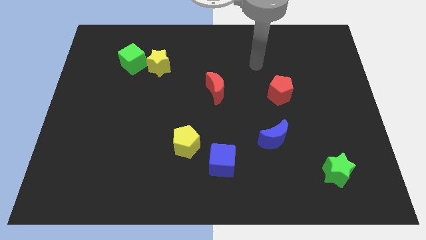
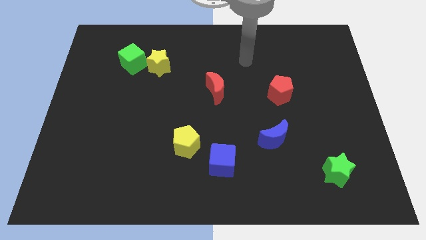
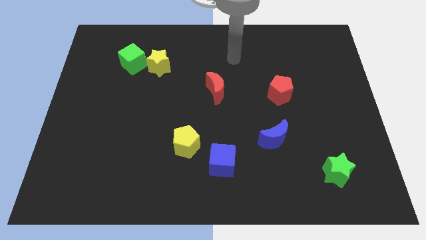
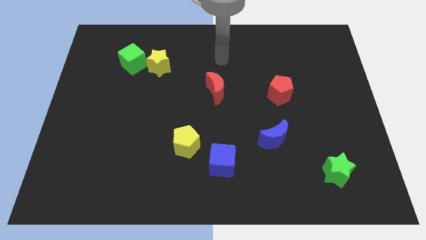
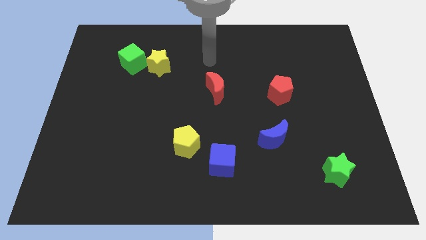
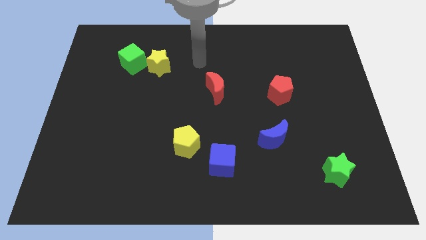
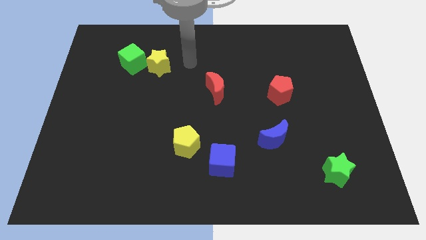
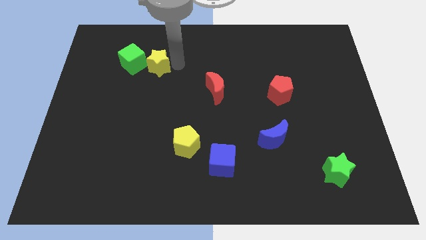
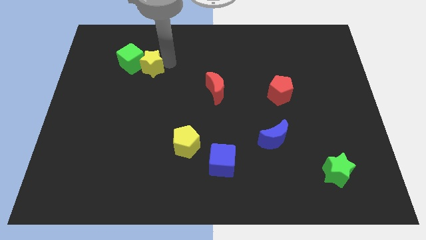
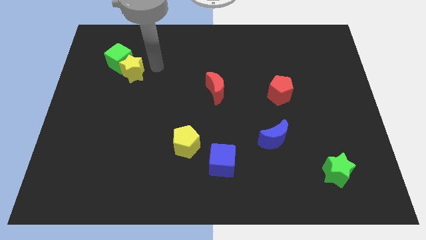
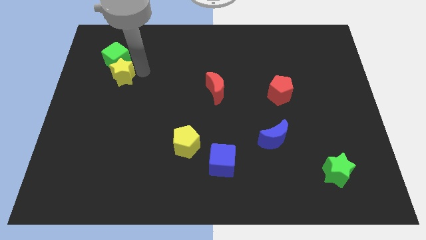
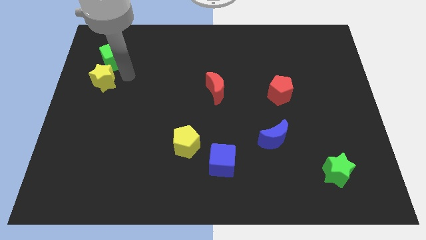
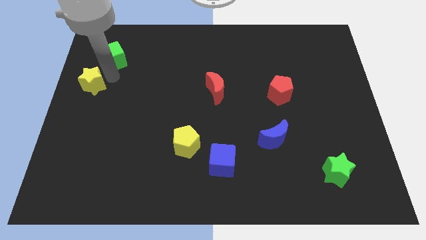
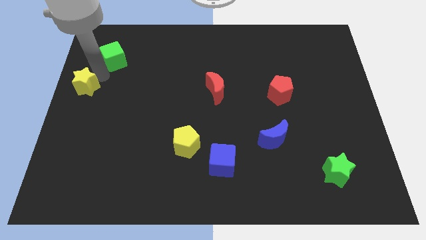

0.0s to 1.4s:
move the green cube away from the yellow star

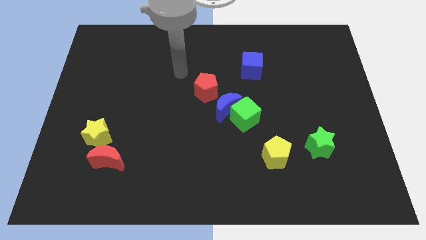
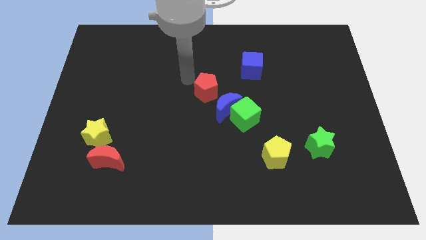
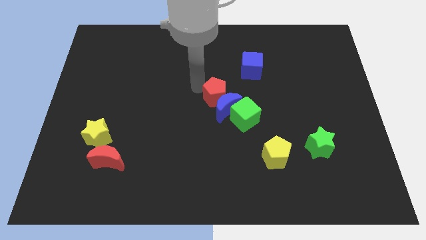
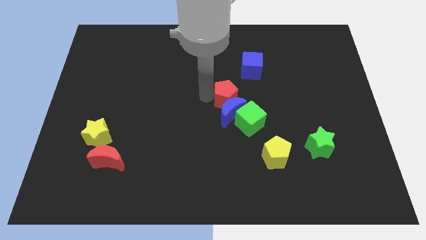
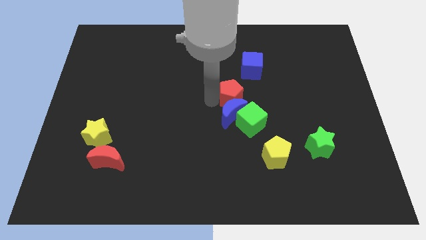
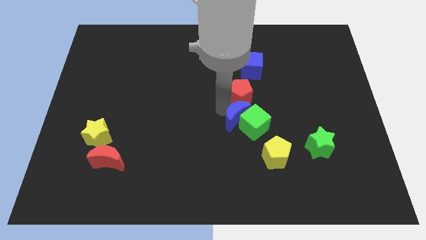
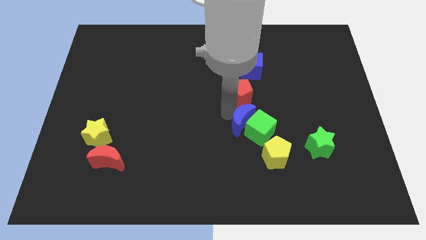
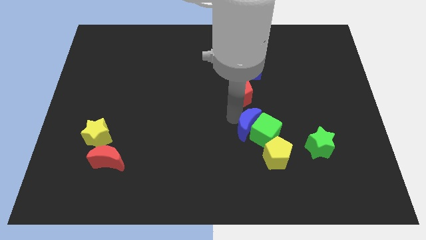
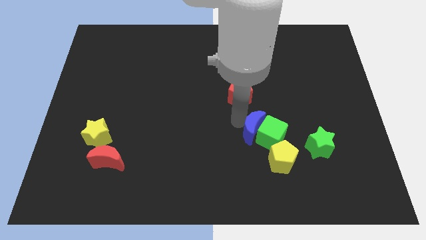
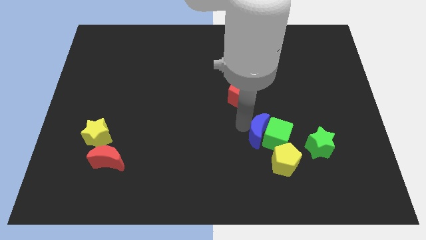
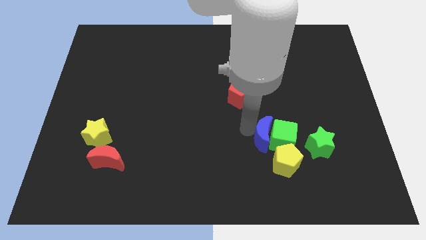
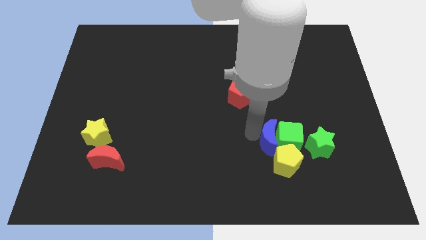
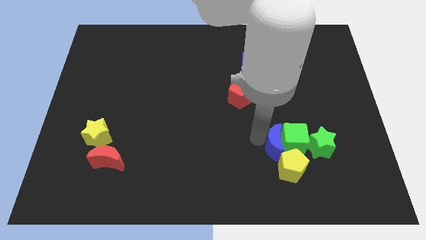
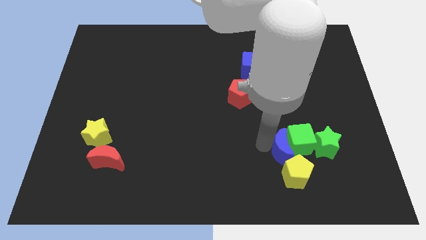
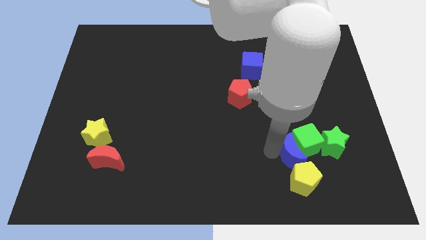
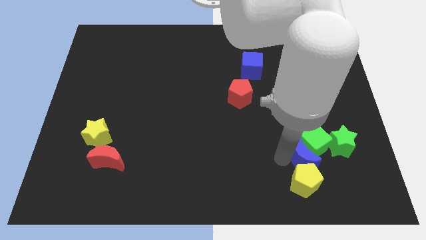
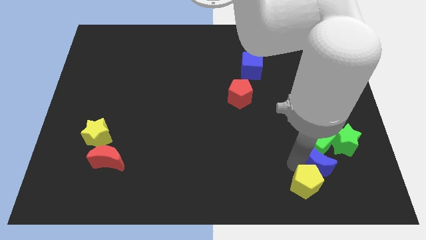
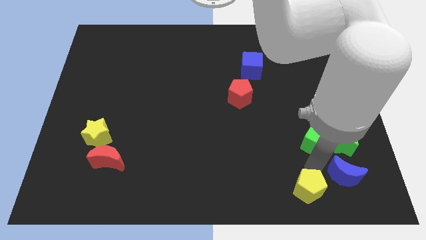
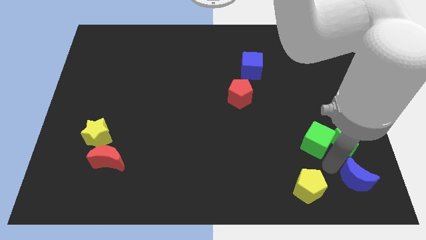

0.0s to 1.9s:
separate the green cube from the blue moon

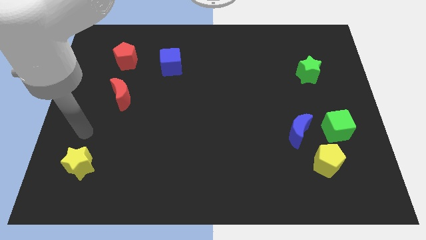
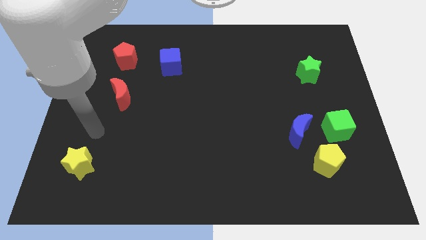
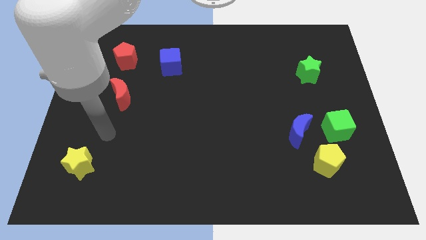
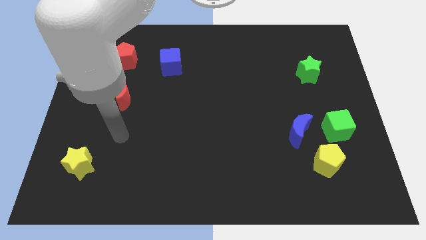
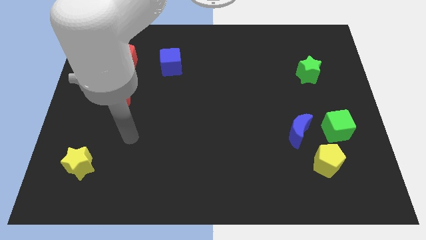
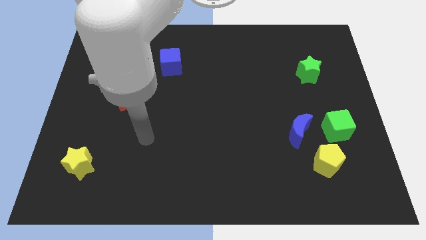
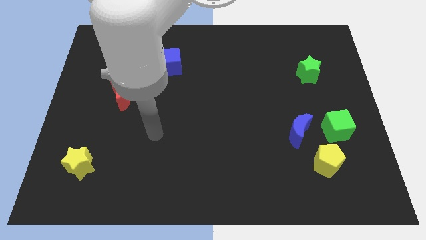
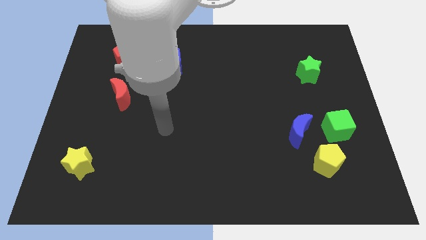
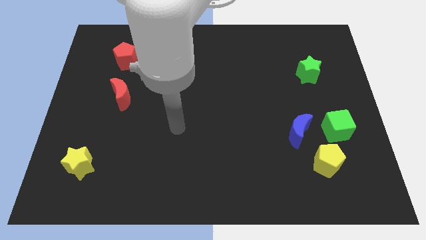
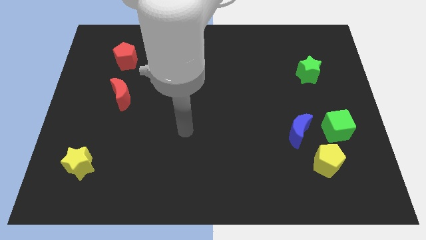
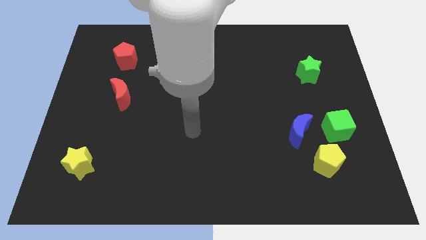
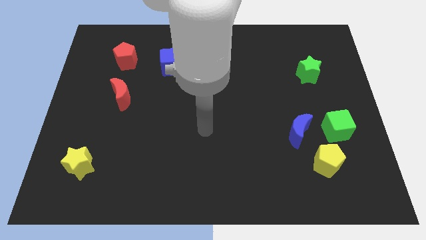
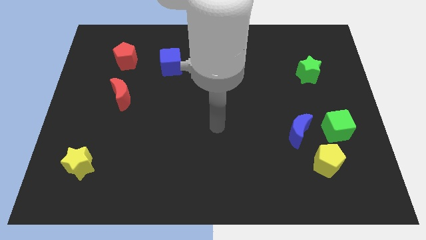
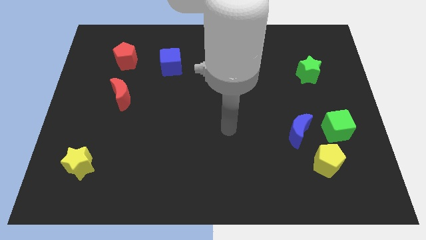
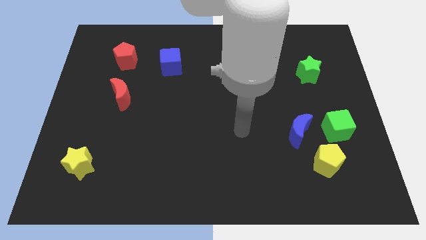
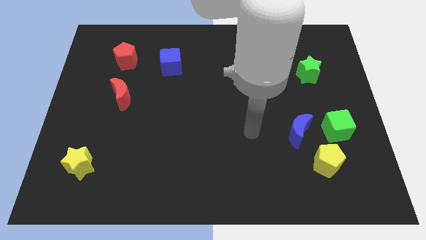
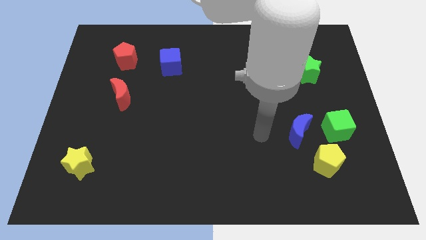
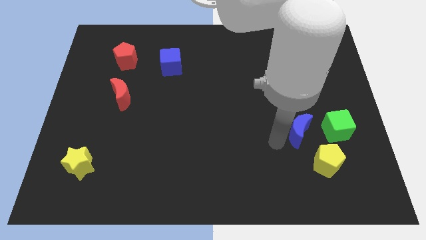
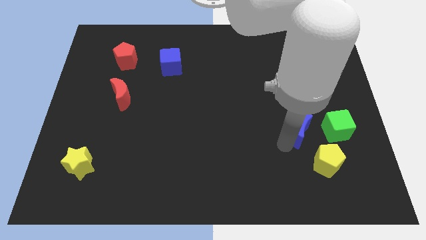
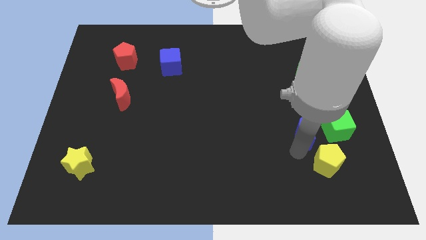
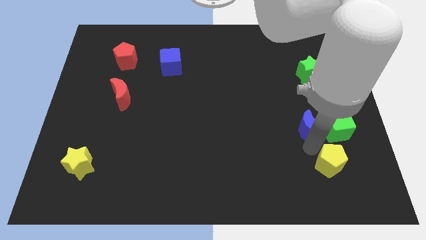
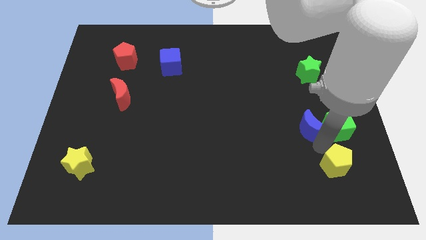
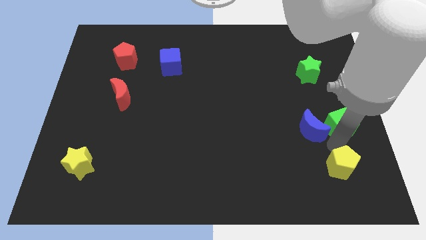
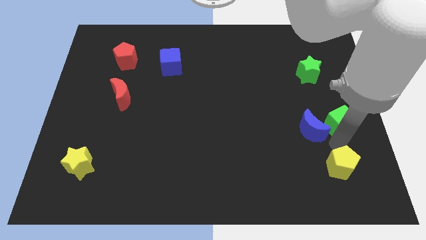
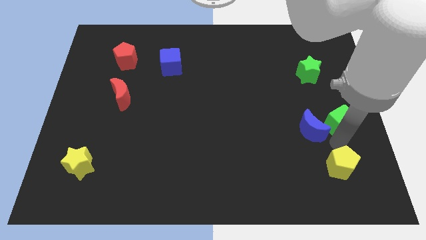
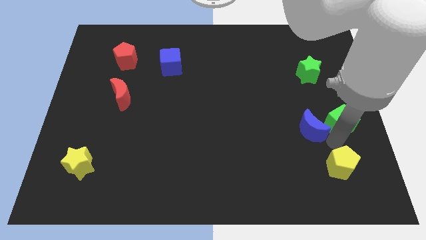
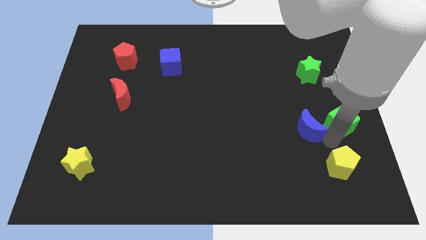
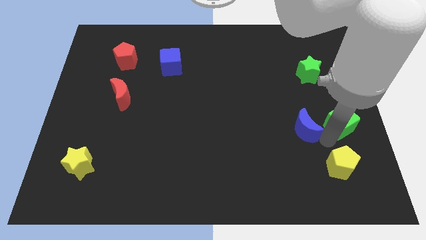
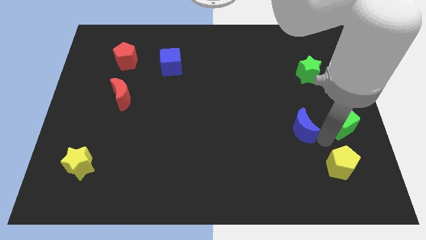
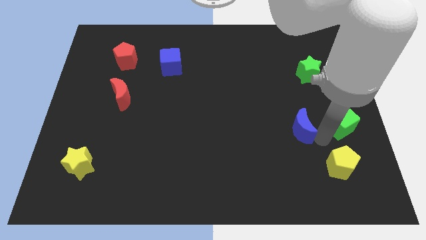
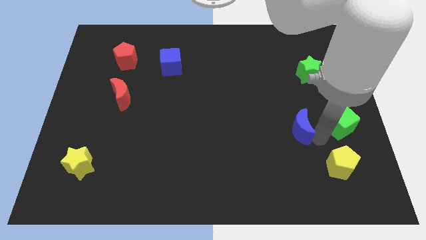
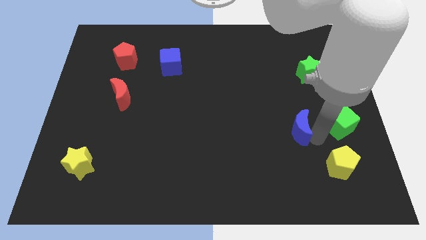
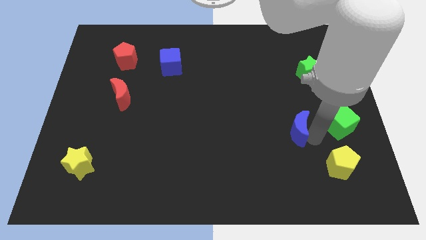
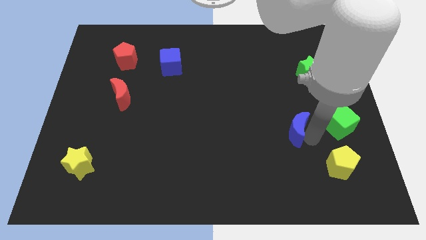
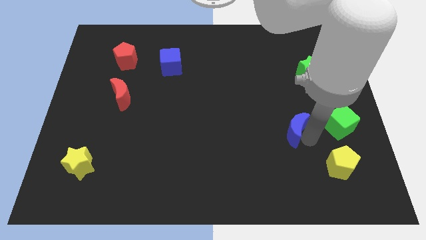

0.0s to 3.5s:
pull the blue moon apart from the green cube and yellow pentagon

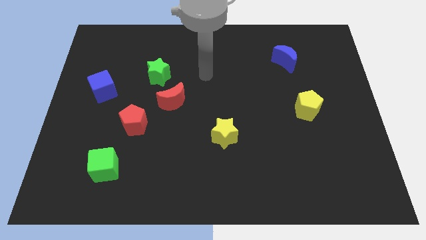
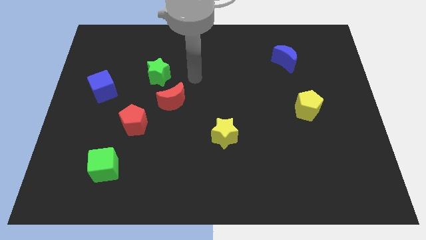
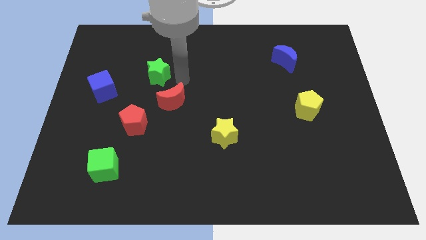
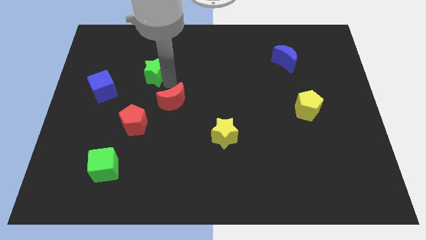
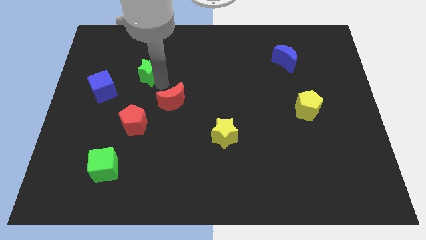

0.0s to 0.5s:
separate the red moon from the green star

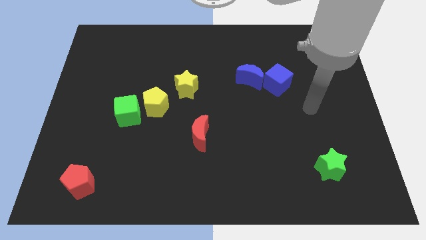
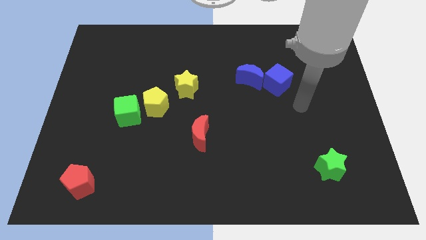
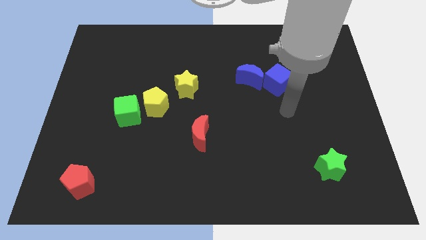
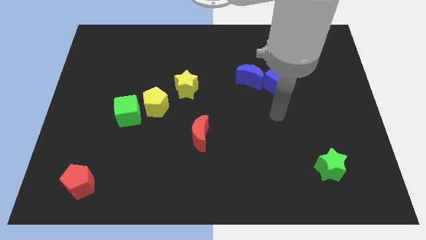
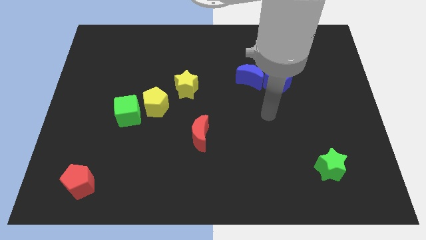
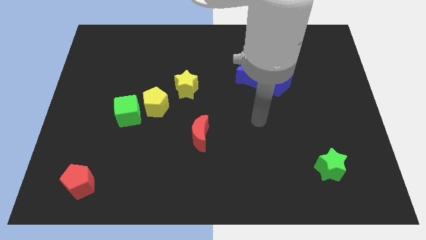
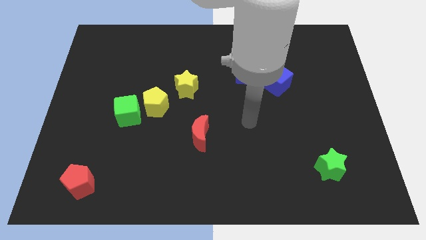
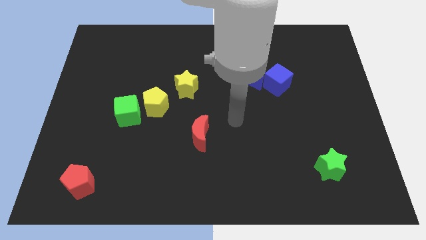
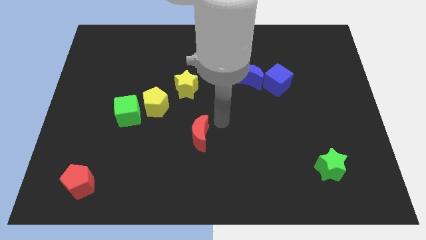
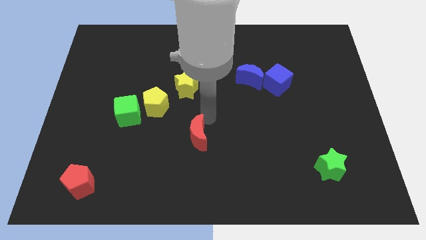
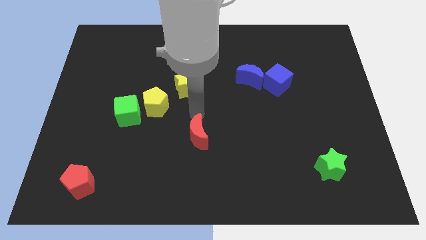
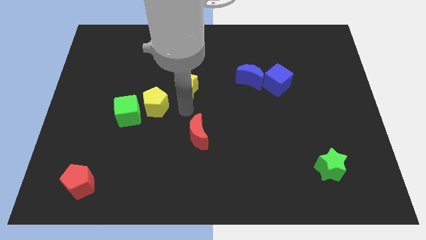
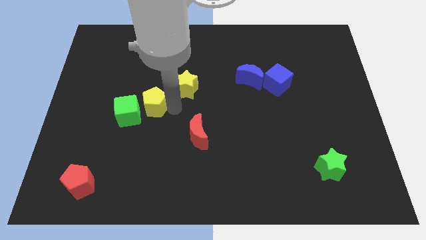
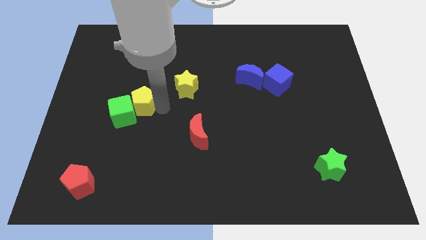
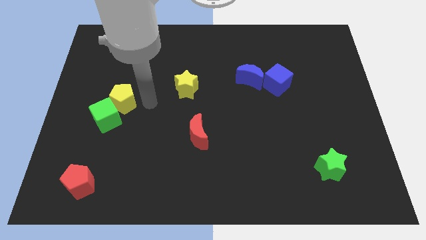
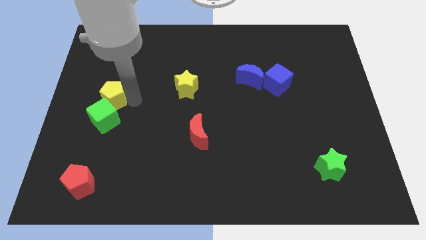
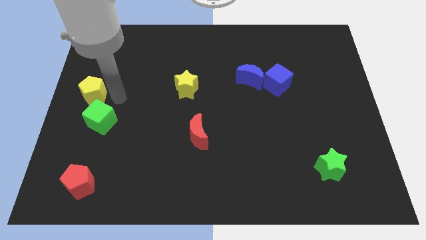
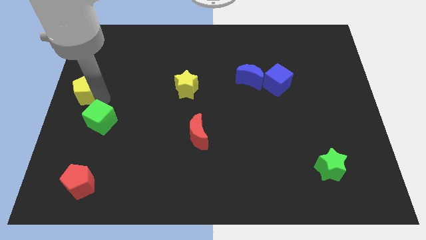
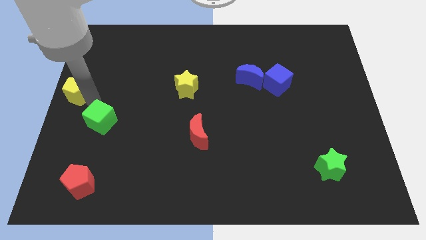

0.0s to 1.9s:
move the green cube away from the yellow pentagon

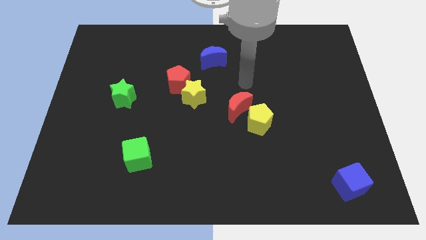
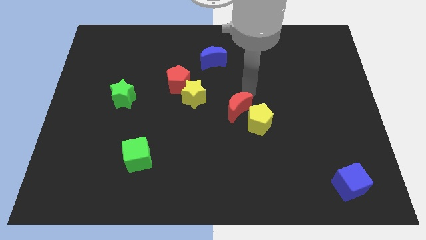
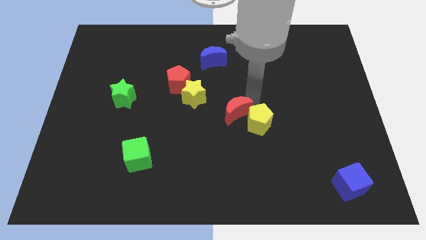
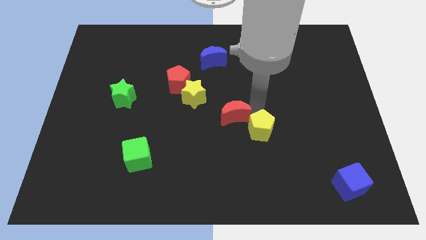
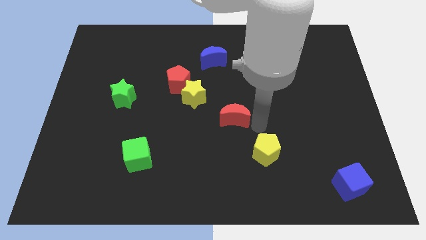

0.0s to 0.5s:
separate the red moon from the yellow pentagon
